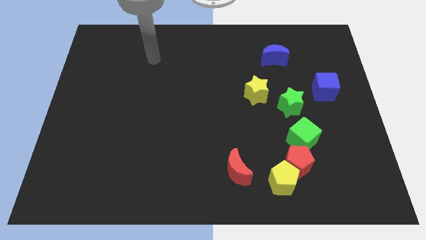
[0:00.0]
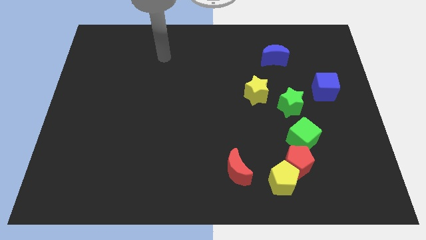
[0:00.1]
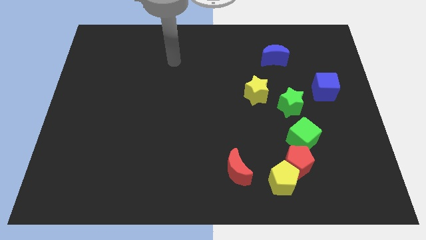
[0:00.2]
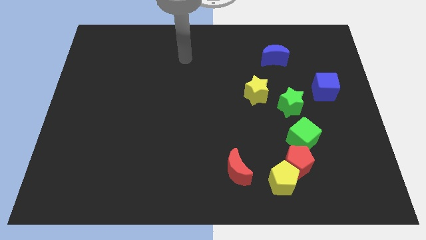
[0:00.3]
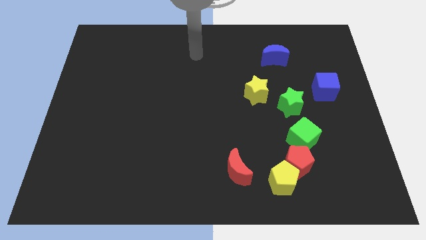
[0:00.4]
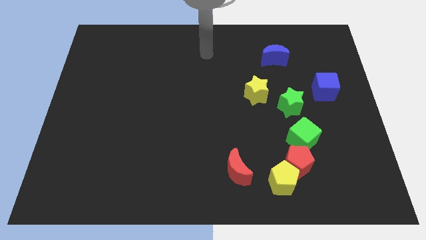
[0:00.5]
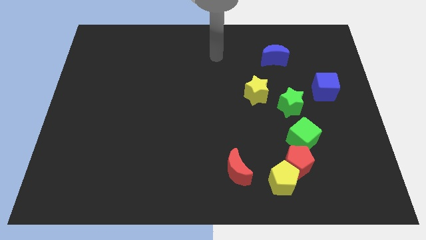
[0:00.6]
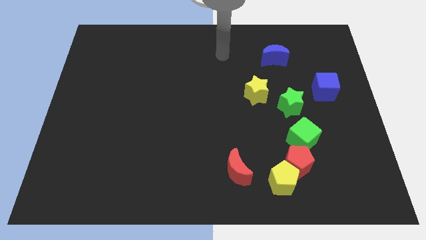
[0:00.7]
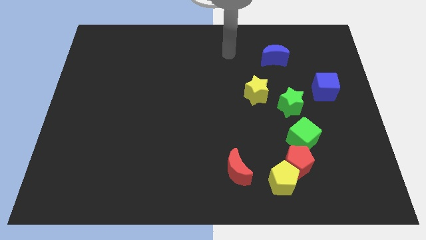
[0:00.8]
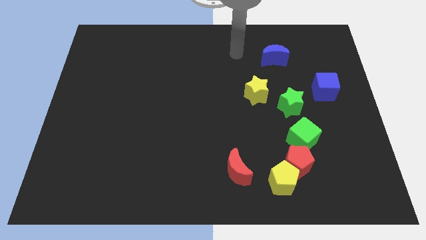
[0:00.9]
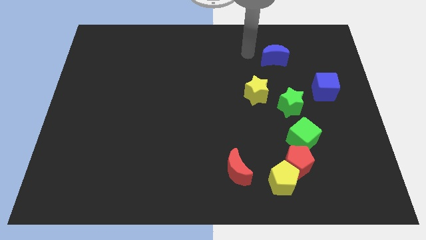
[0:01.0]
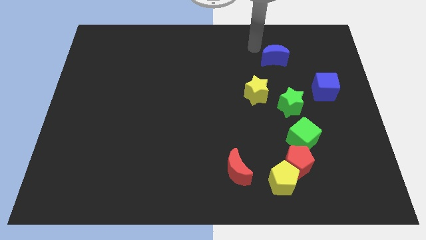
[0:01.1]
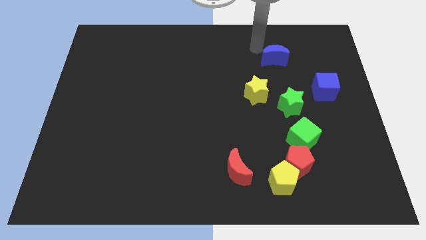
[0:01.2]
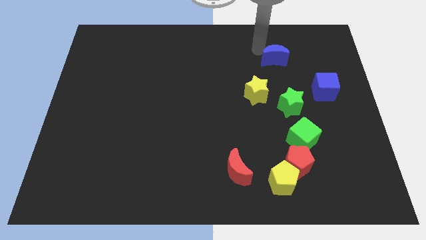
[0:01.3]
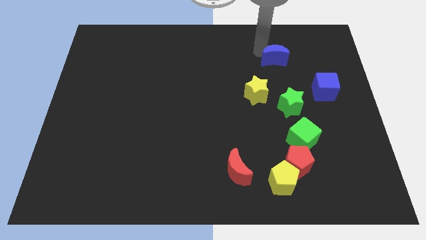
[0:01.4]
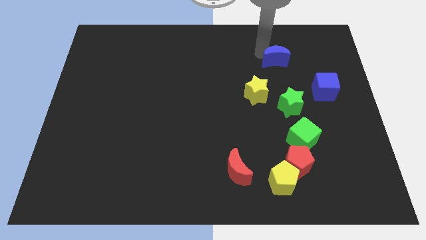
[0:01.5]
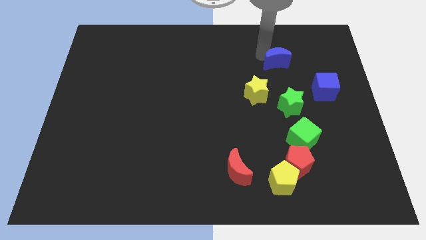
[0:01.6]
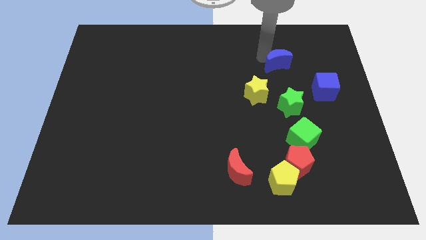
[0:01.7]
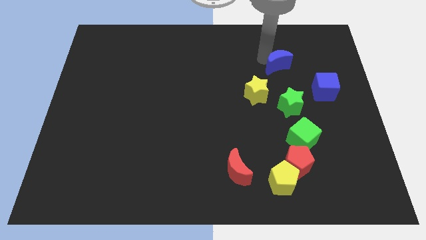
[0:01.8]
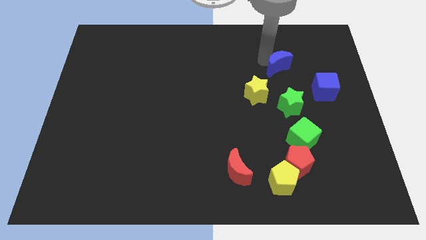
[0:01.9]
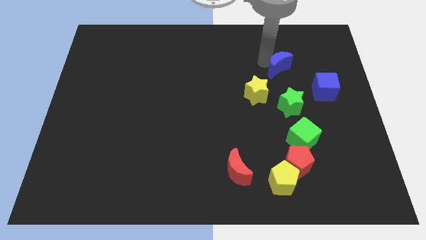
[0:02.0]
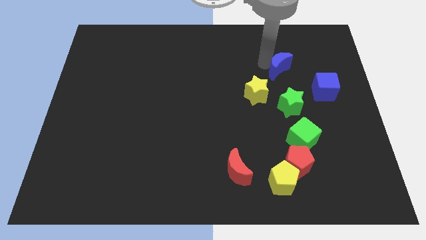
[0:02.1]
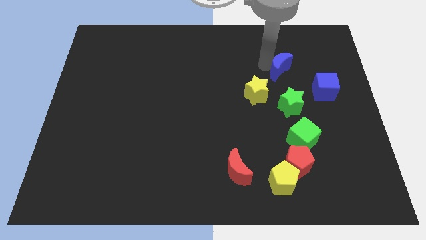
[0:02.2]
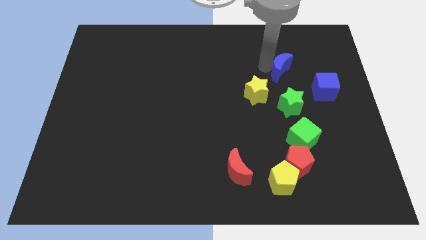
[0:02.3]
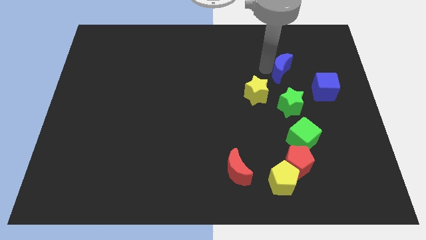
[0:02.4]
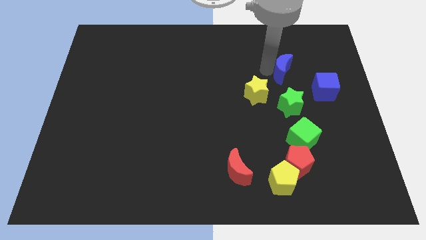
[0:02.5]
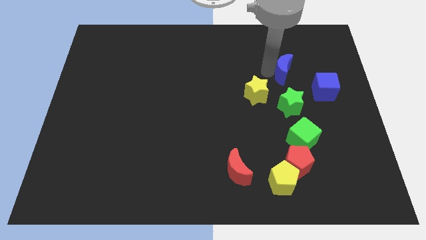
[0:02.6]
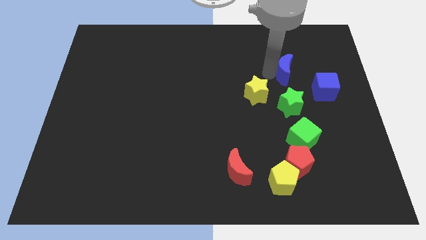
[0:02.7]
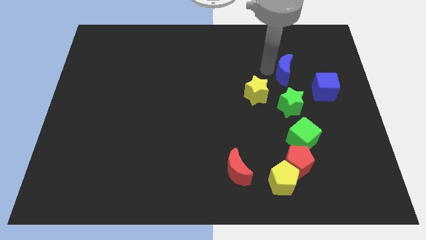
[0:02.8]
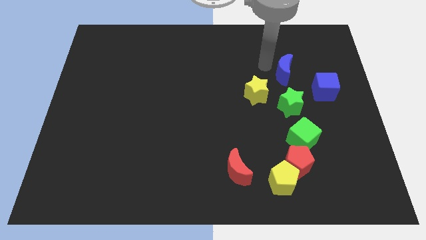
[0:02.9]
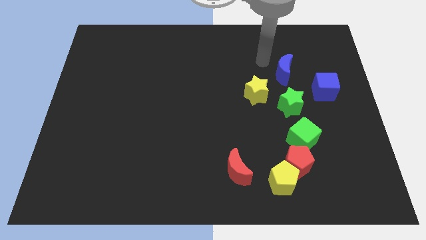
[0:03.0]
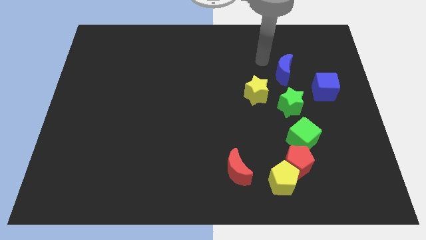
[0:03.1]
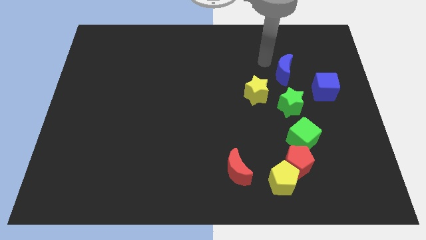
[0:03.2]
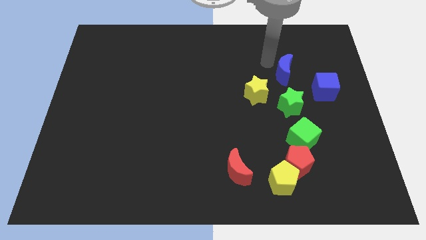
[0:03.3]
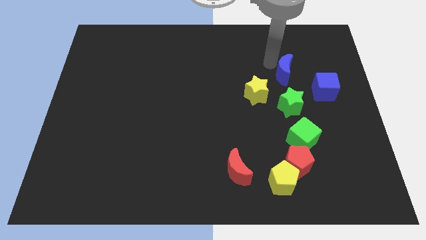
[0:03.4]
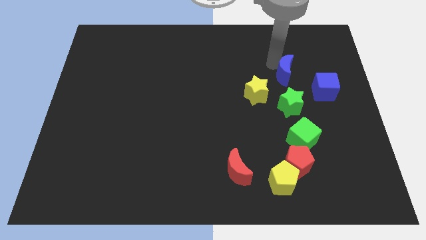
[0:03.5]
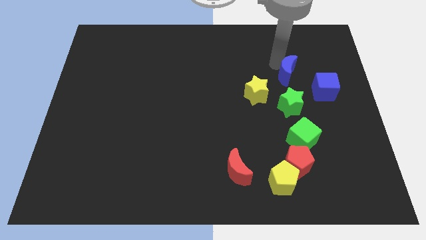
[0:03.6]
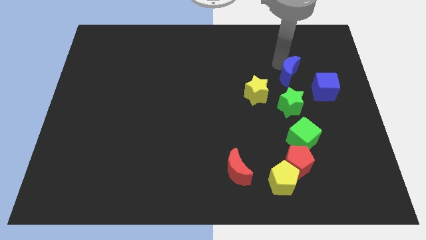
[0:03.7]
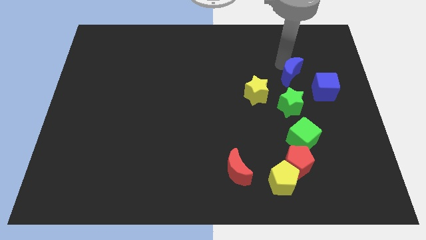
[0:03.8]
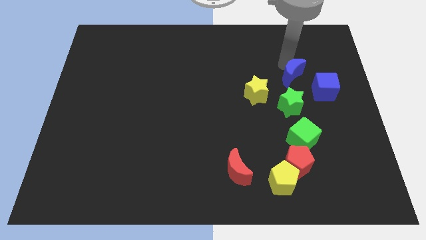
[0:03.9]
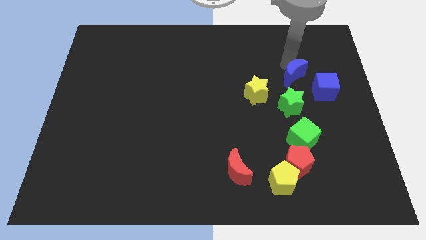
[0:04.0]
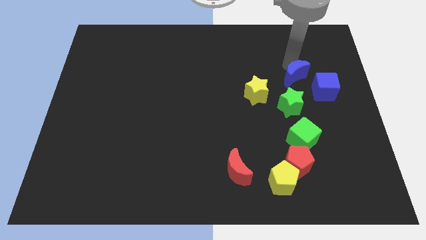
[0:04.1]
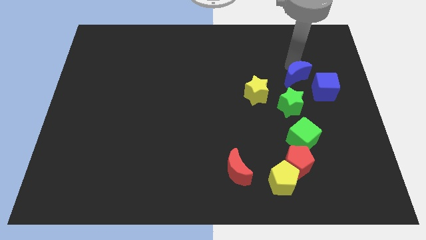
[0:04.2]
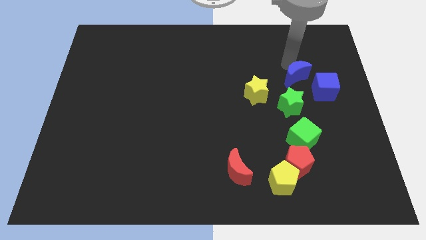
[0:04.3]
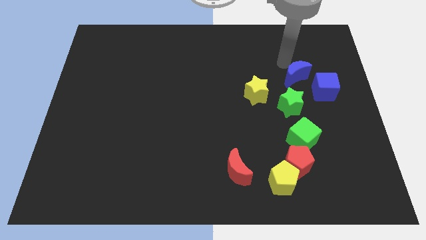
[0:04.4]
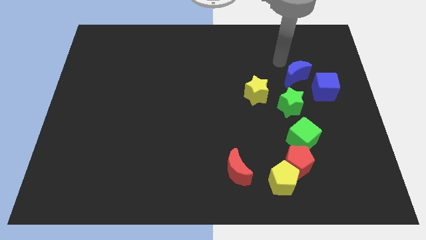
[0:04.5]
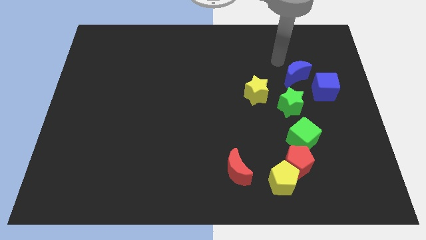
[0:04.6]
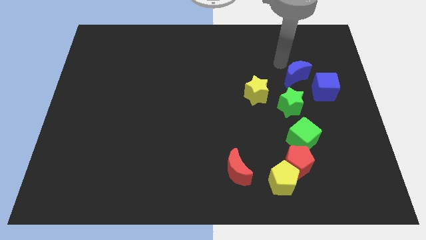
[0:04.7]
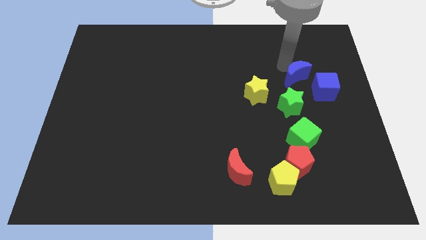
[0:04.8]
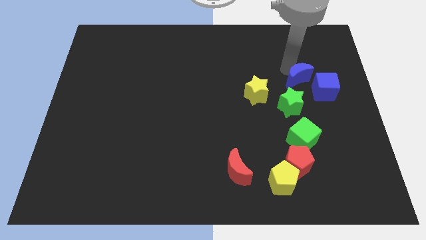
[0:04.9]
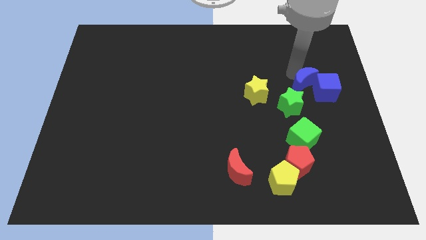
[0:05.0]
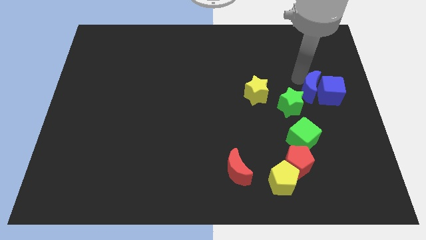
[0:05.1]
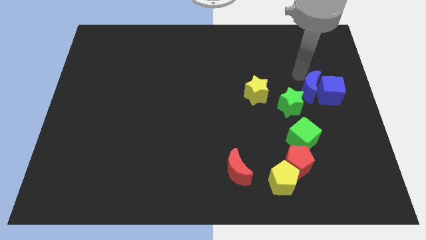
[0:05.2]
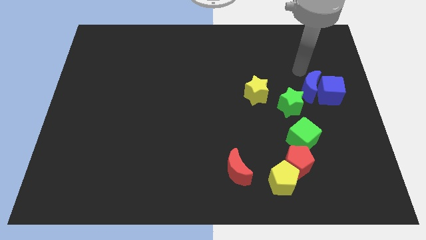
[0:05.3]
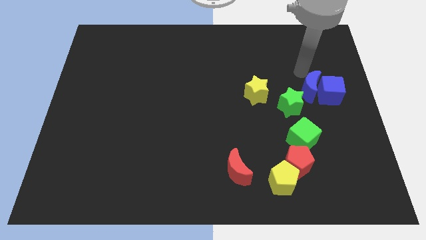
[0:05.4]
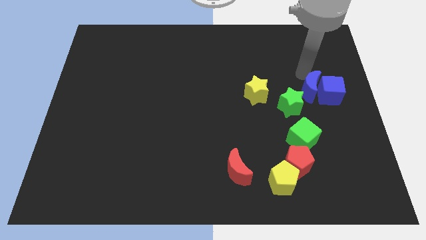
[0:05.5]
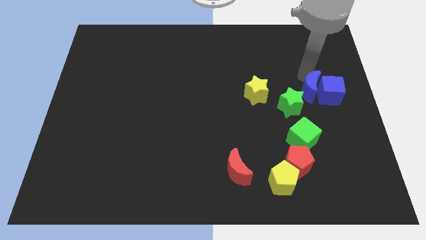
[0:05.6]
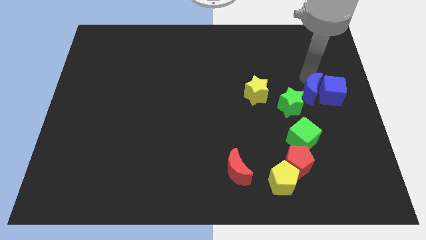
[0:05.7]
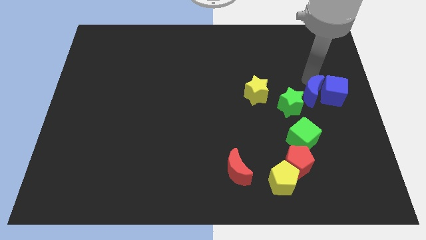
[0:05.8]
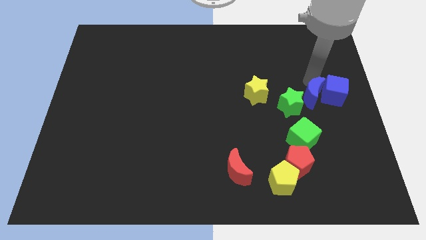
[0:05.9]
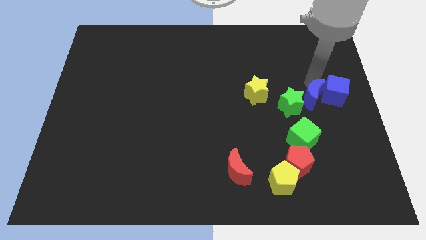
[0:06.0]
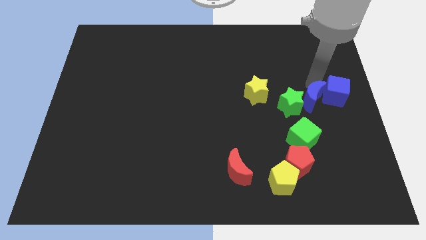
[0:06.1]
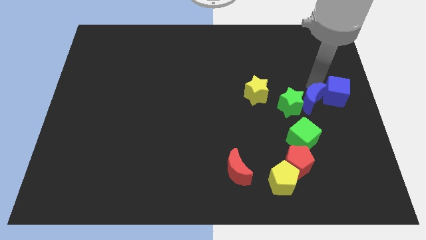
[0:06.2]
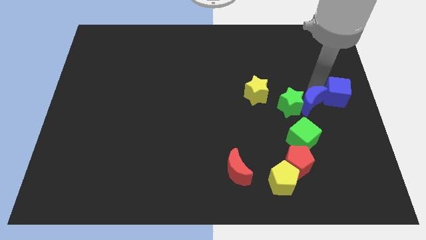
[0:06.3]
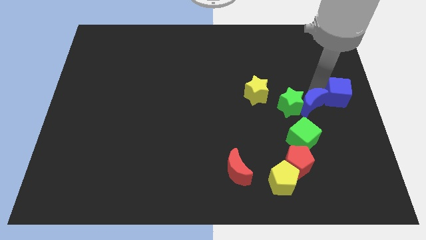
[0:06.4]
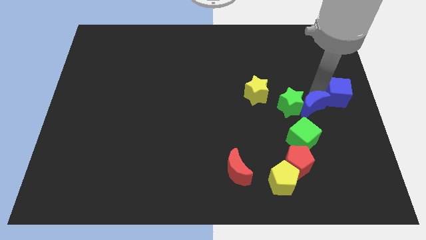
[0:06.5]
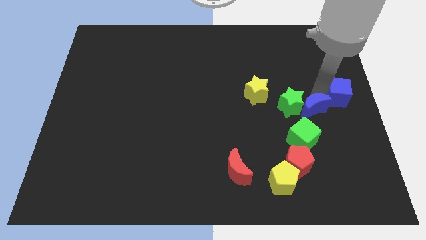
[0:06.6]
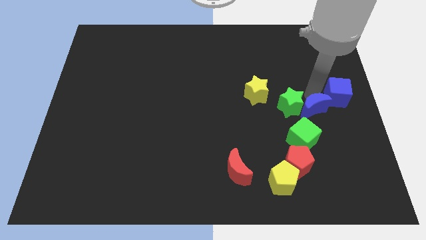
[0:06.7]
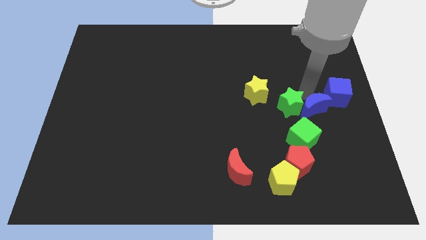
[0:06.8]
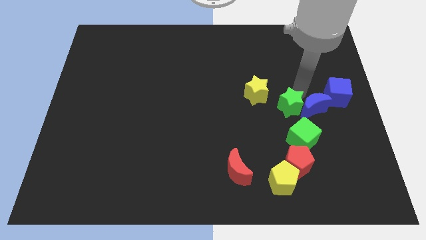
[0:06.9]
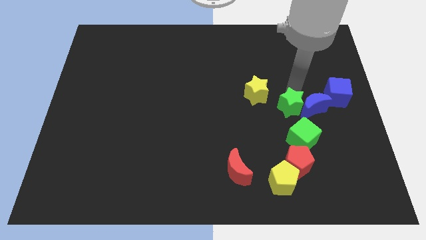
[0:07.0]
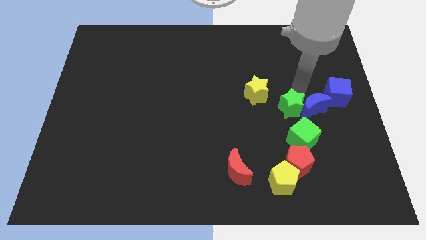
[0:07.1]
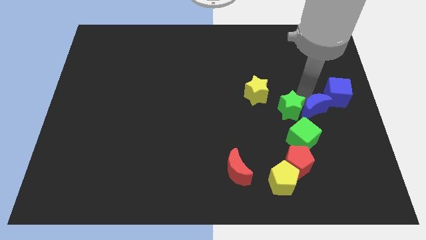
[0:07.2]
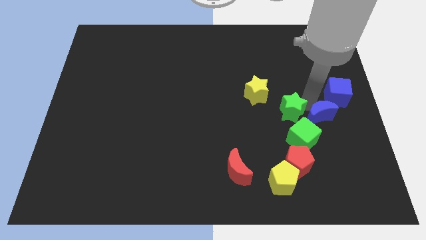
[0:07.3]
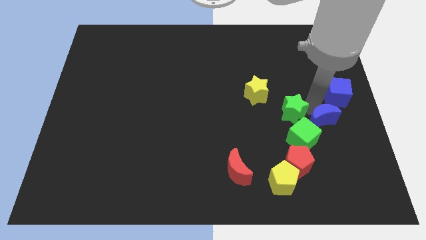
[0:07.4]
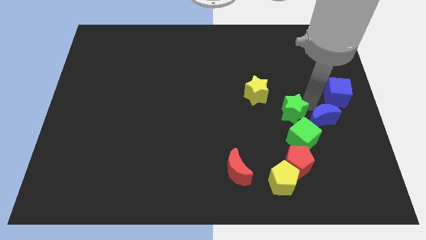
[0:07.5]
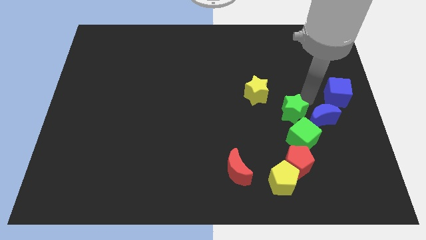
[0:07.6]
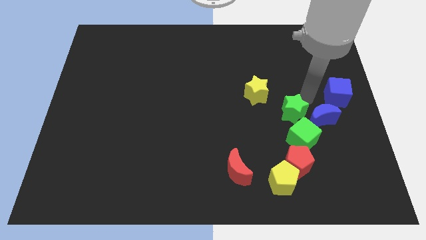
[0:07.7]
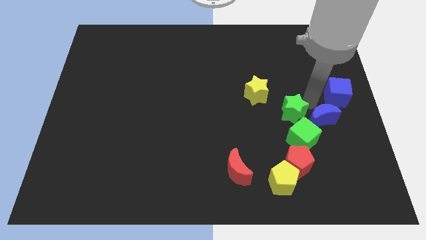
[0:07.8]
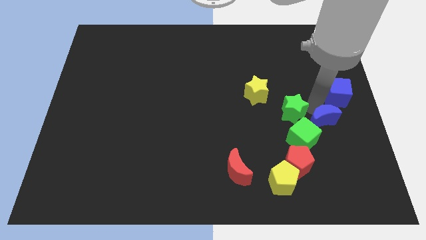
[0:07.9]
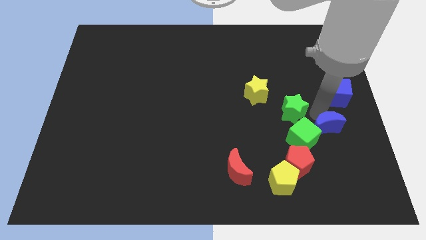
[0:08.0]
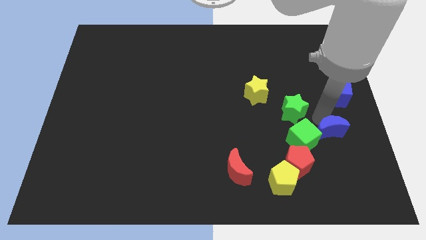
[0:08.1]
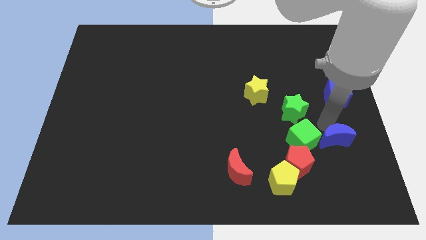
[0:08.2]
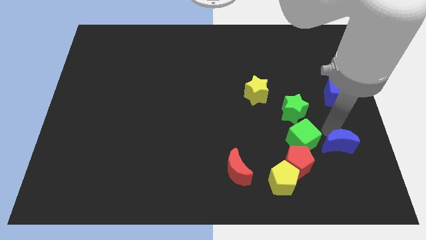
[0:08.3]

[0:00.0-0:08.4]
put the blue moon to the right of the red pentagon
